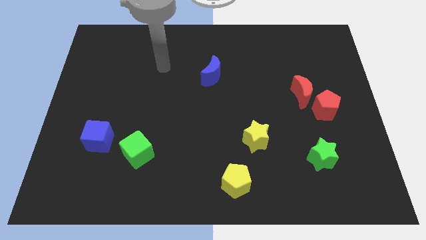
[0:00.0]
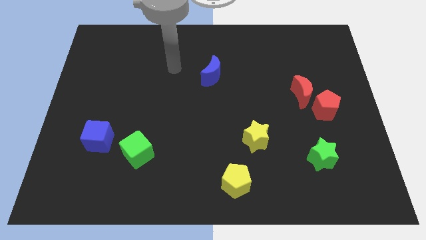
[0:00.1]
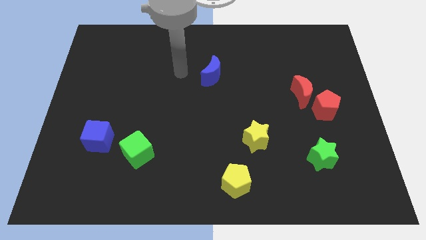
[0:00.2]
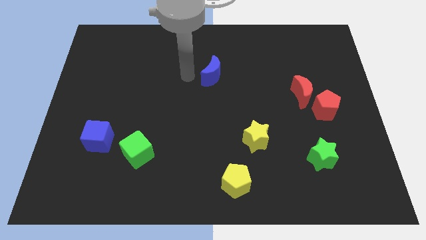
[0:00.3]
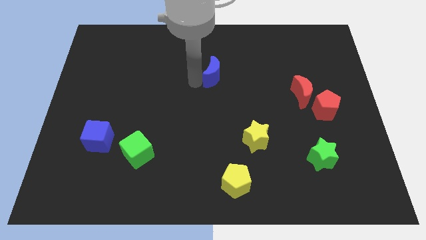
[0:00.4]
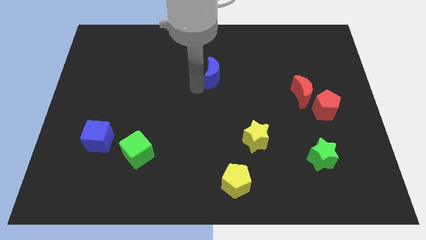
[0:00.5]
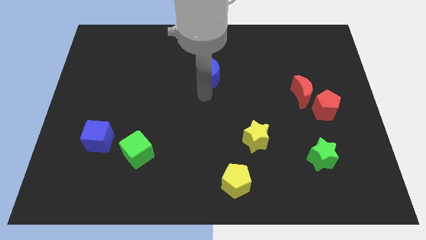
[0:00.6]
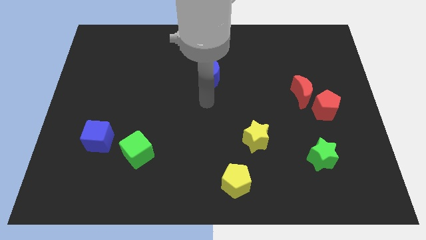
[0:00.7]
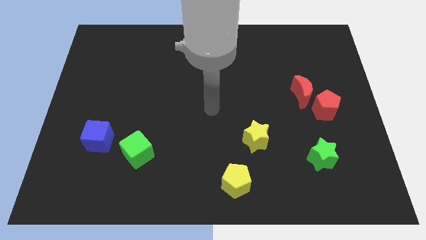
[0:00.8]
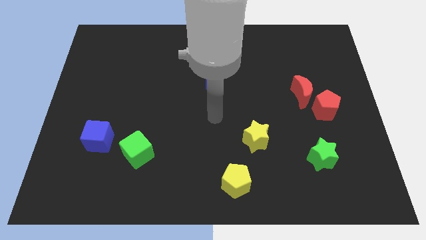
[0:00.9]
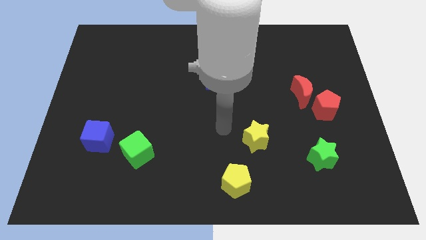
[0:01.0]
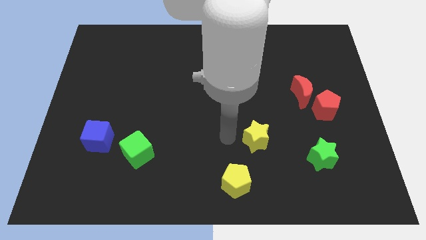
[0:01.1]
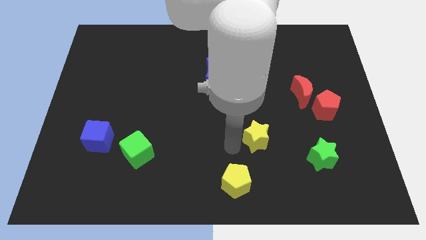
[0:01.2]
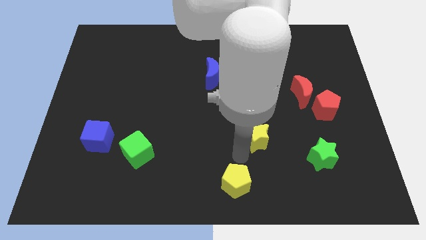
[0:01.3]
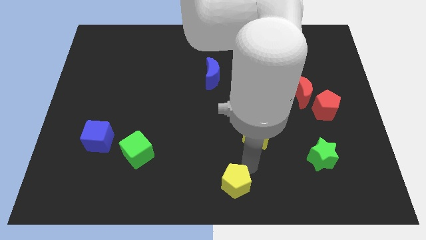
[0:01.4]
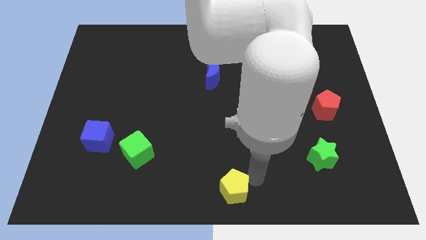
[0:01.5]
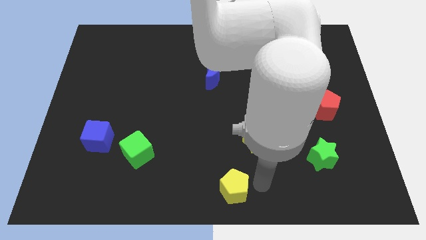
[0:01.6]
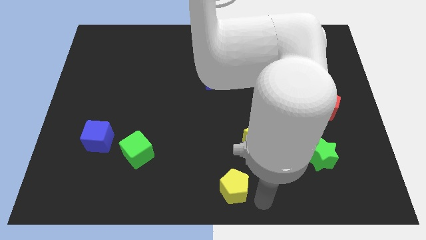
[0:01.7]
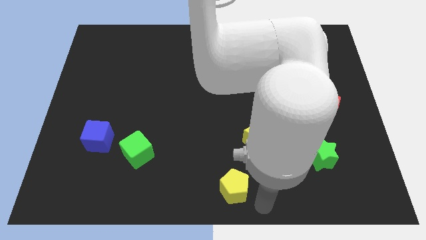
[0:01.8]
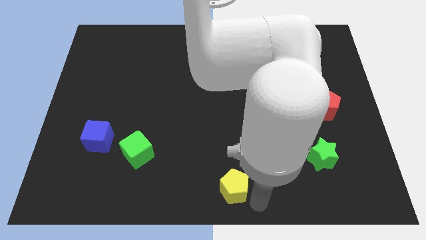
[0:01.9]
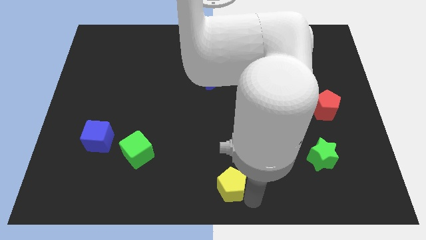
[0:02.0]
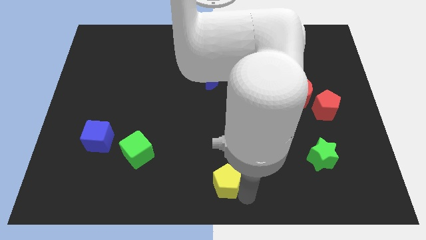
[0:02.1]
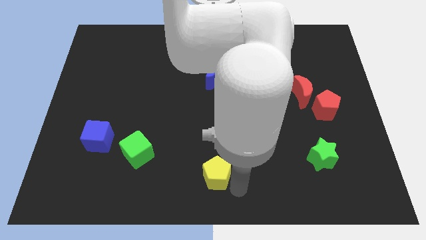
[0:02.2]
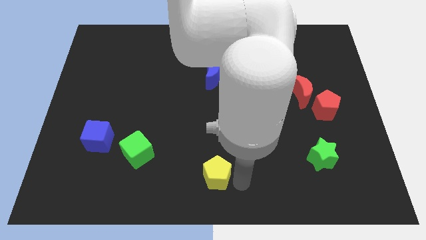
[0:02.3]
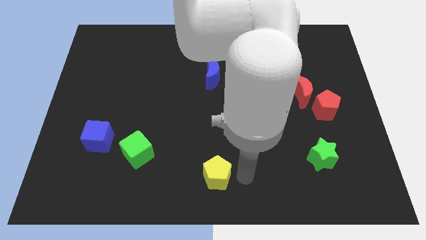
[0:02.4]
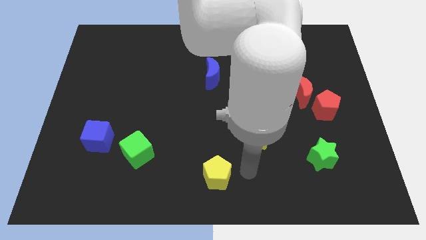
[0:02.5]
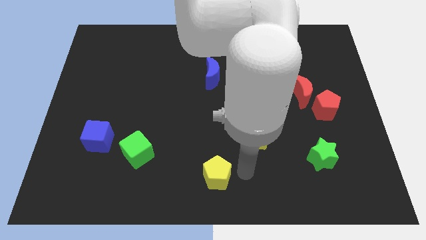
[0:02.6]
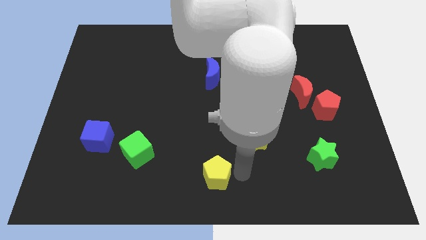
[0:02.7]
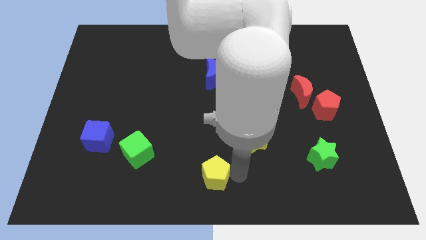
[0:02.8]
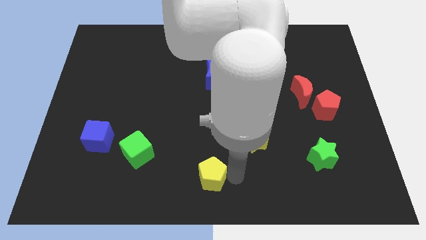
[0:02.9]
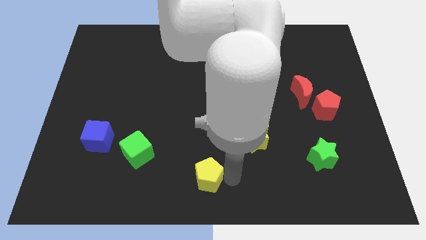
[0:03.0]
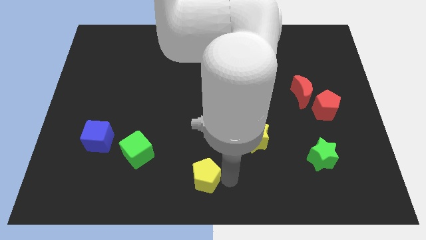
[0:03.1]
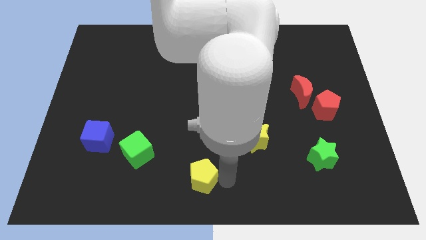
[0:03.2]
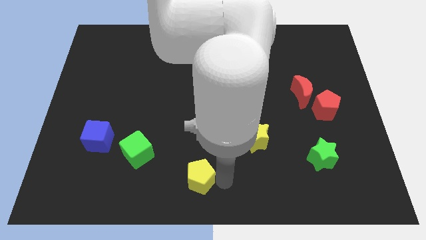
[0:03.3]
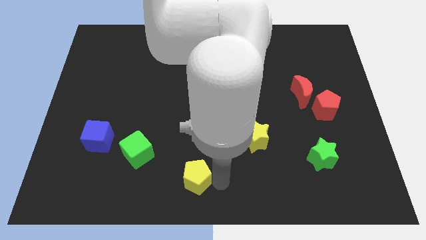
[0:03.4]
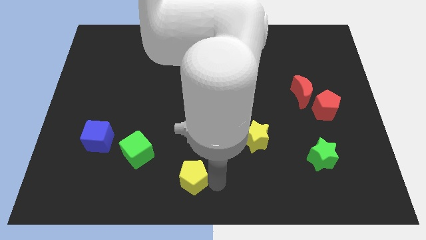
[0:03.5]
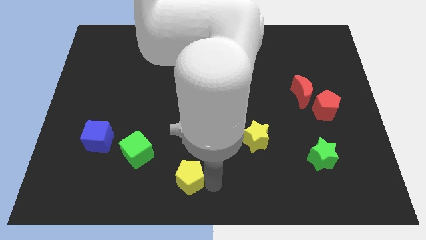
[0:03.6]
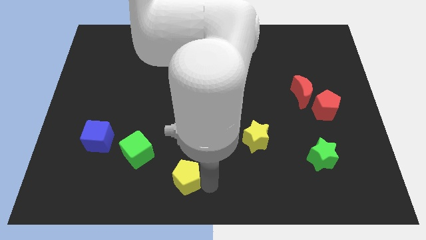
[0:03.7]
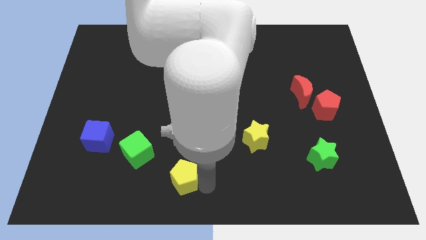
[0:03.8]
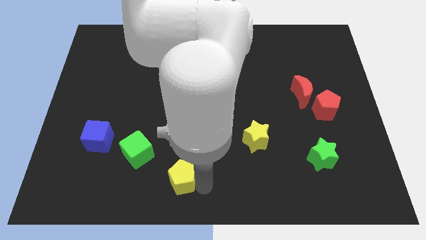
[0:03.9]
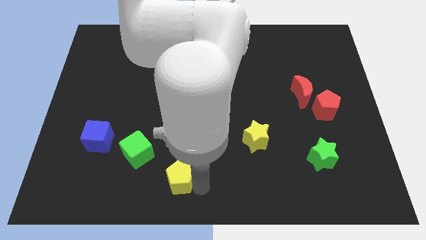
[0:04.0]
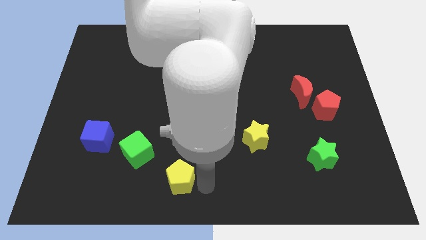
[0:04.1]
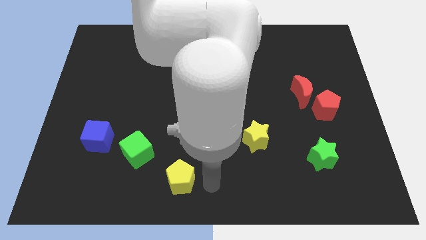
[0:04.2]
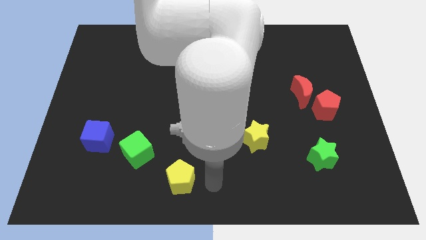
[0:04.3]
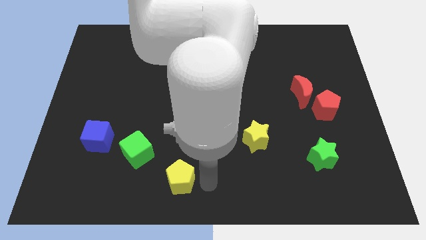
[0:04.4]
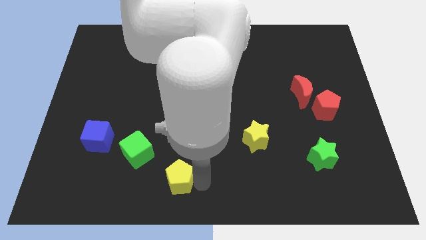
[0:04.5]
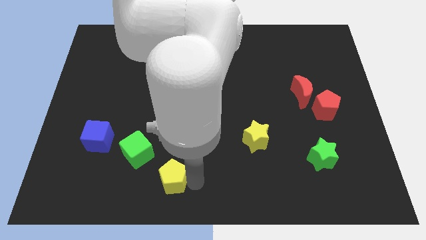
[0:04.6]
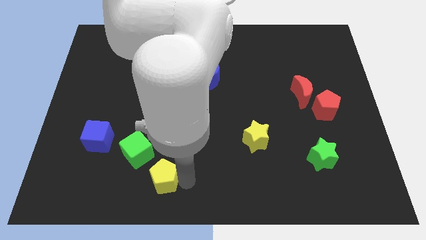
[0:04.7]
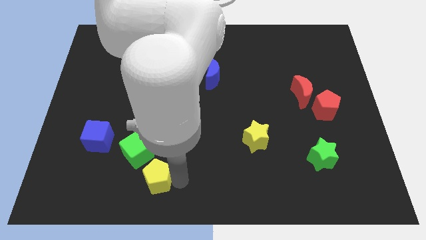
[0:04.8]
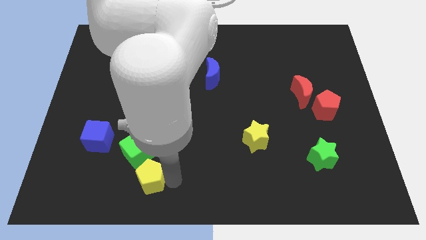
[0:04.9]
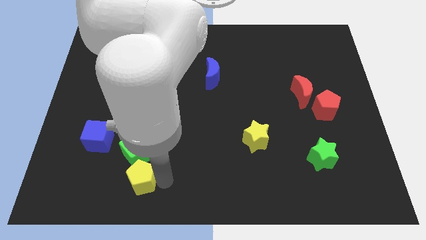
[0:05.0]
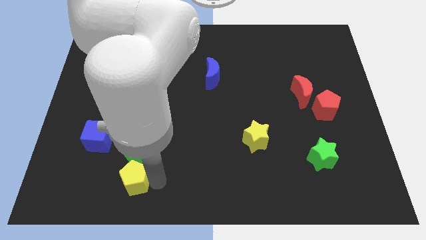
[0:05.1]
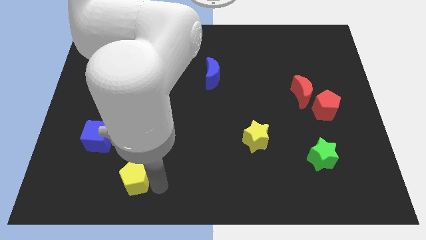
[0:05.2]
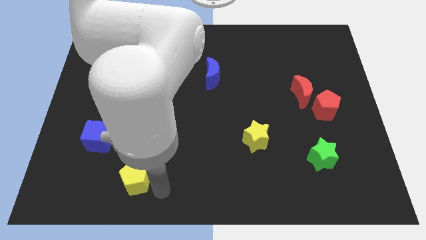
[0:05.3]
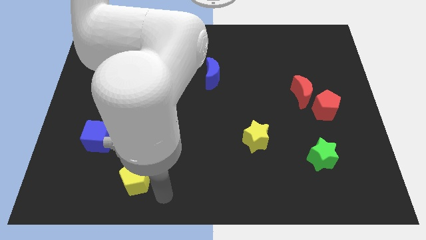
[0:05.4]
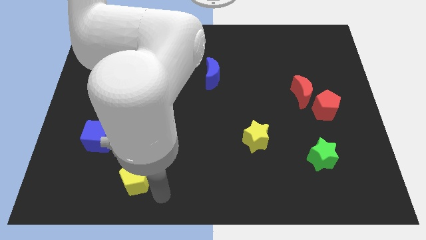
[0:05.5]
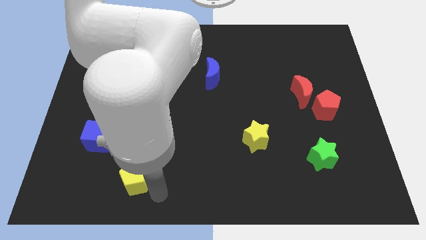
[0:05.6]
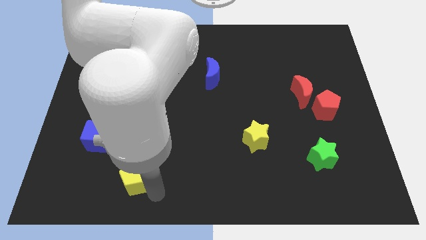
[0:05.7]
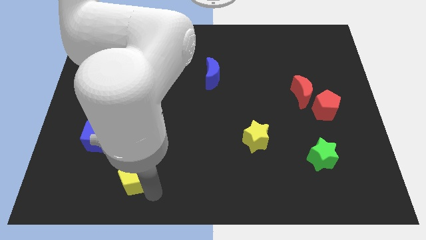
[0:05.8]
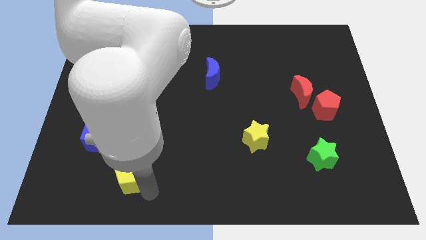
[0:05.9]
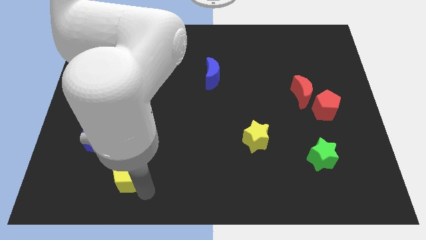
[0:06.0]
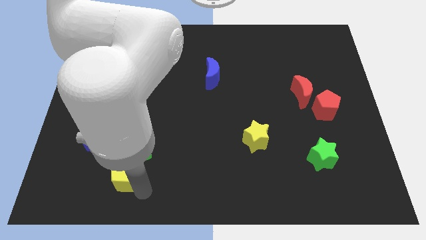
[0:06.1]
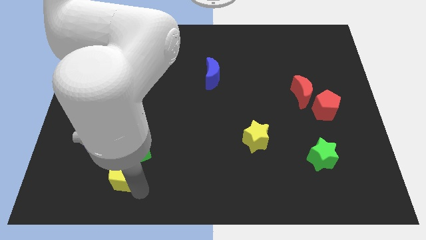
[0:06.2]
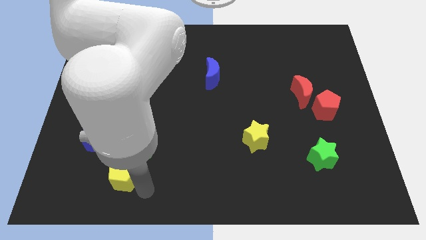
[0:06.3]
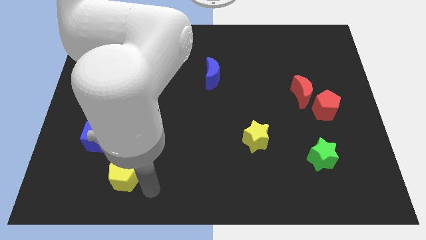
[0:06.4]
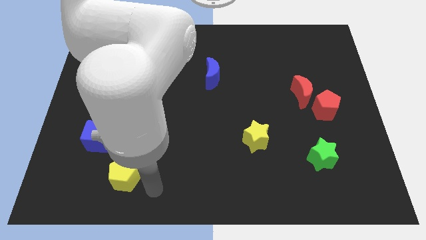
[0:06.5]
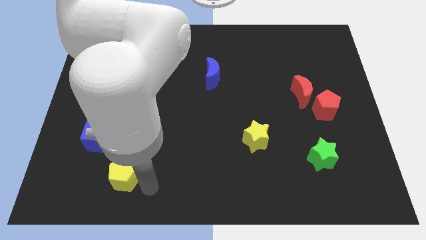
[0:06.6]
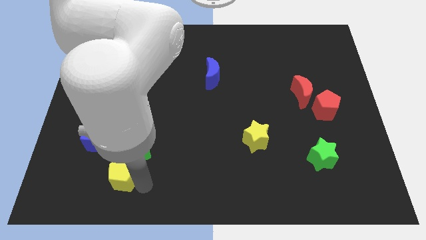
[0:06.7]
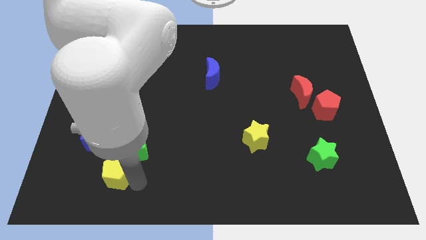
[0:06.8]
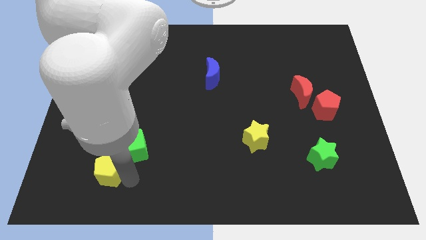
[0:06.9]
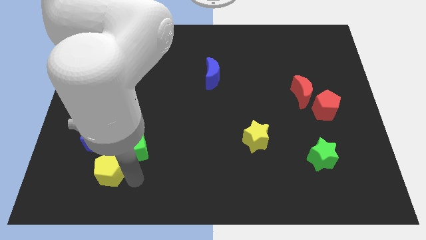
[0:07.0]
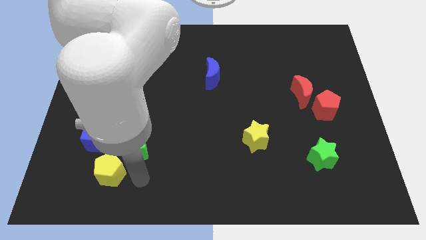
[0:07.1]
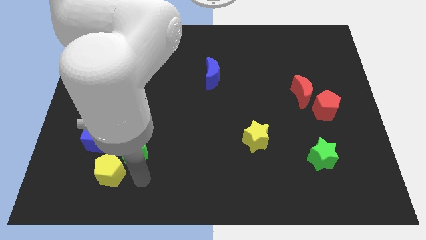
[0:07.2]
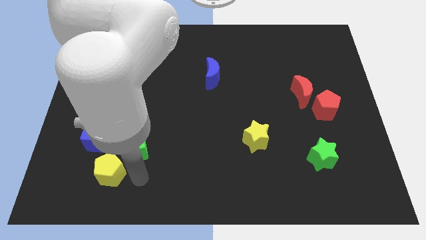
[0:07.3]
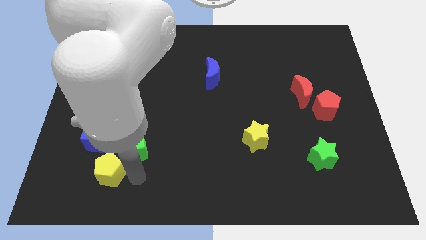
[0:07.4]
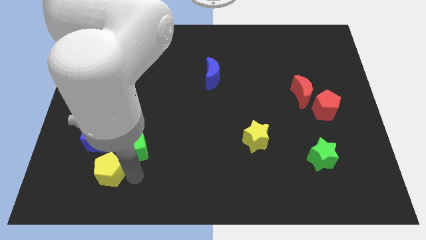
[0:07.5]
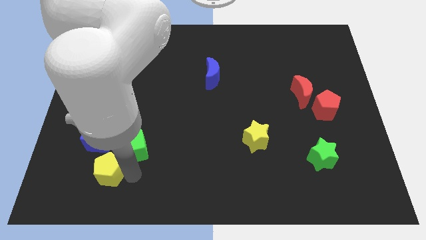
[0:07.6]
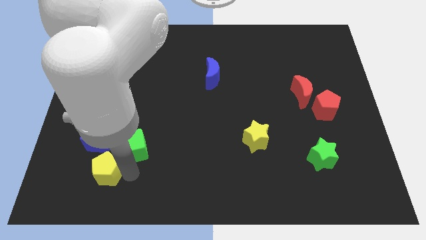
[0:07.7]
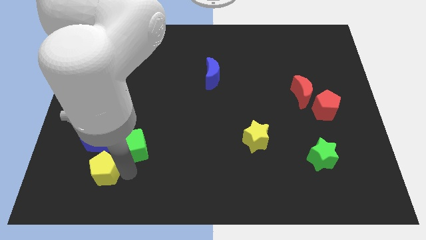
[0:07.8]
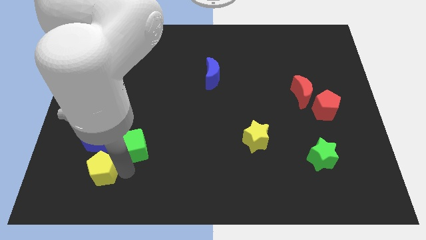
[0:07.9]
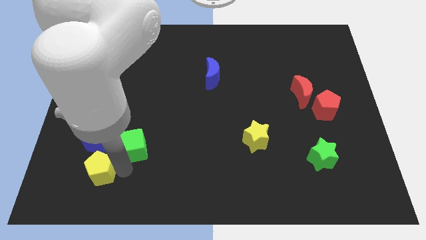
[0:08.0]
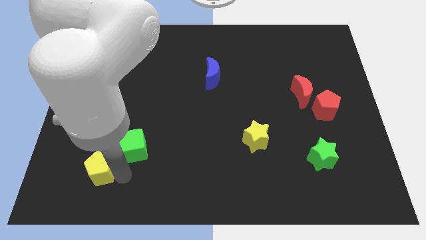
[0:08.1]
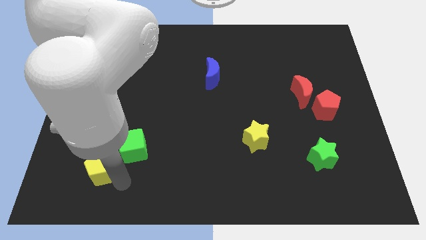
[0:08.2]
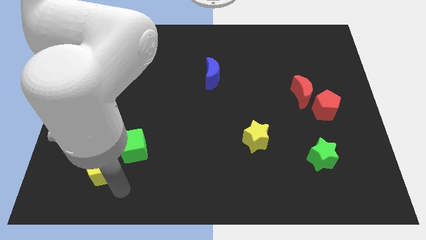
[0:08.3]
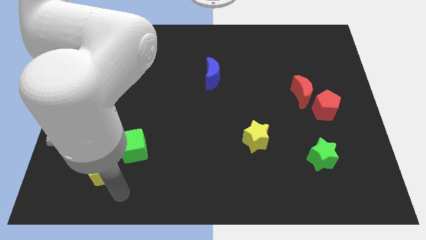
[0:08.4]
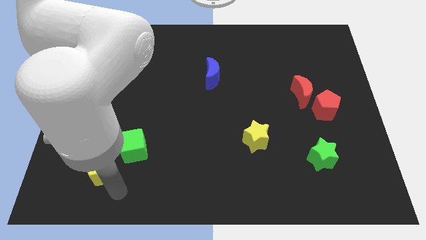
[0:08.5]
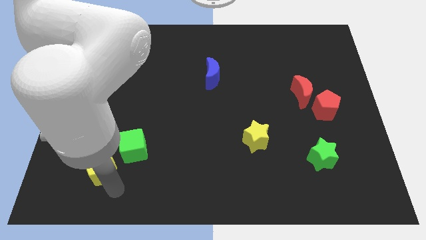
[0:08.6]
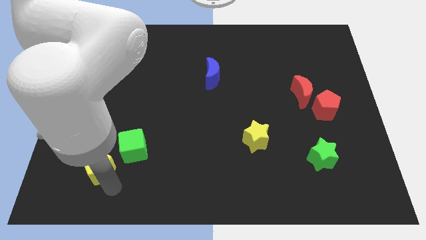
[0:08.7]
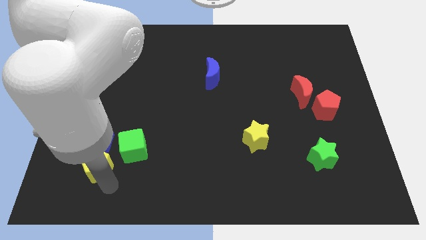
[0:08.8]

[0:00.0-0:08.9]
put the yellow pentagon left of the green cube
